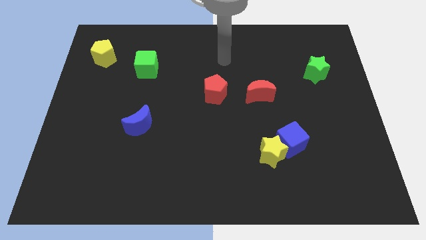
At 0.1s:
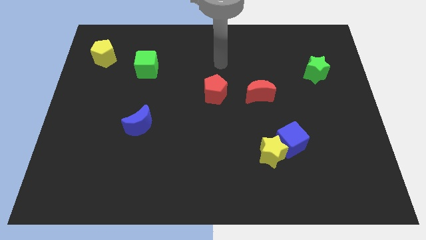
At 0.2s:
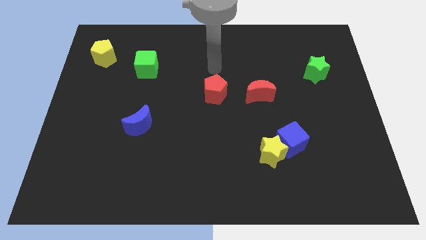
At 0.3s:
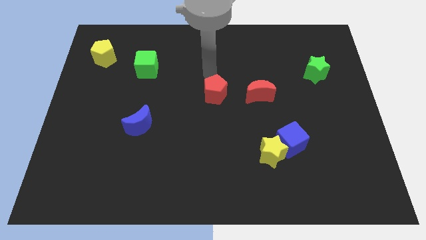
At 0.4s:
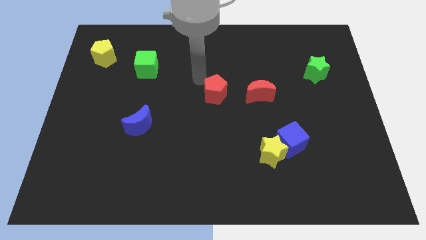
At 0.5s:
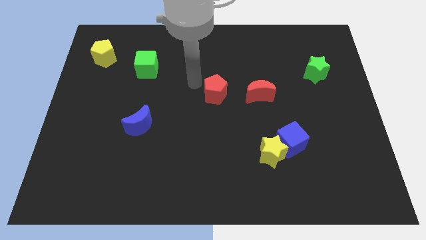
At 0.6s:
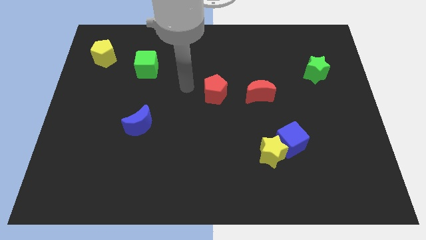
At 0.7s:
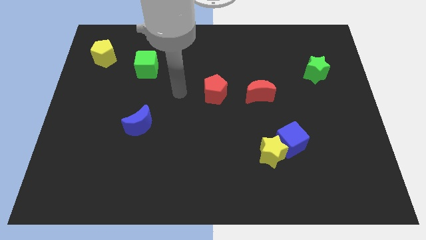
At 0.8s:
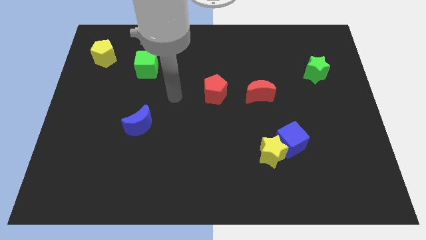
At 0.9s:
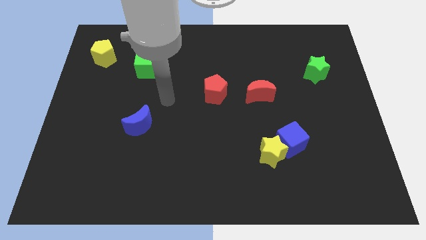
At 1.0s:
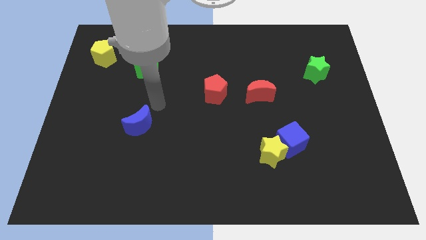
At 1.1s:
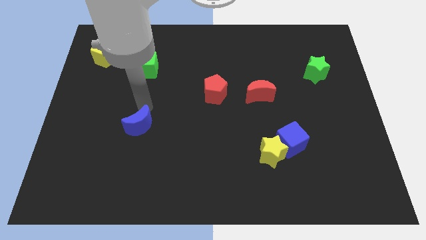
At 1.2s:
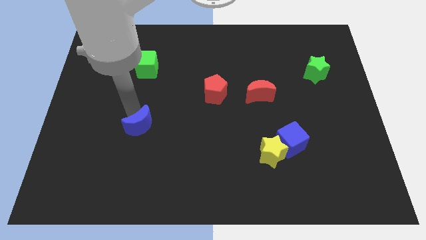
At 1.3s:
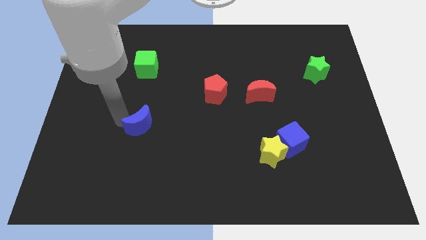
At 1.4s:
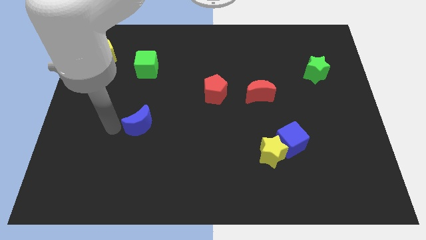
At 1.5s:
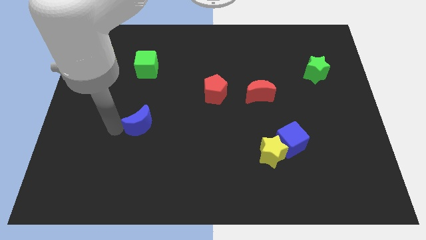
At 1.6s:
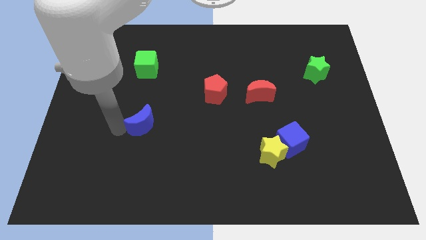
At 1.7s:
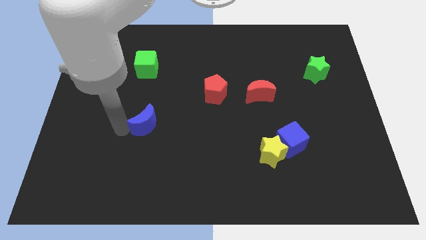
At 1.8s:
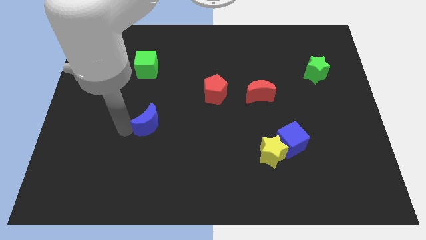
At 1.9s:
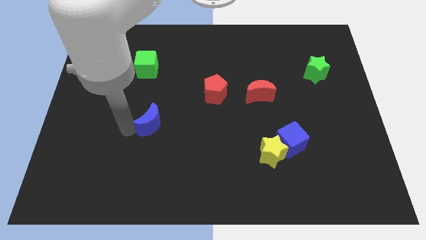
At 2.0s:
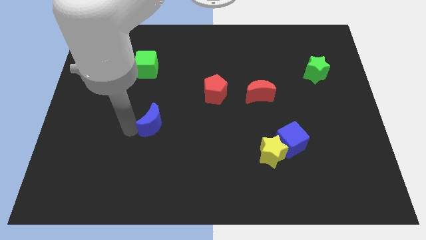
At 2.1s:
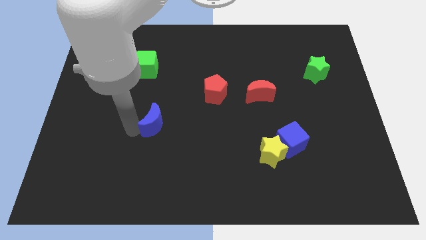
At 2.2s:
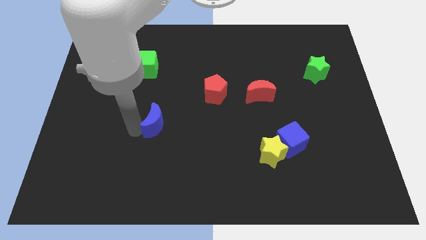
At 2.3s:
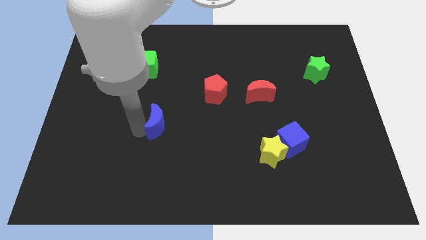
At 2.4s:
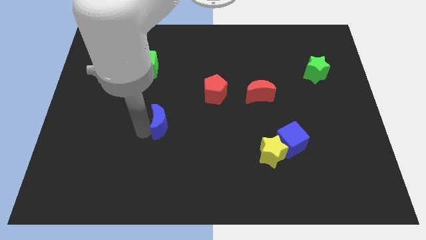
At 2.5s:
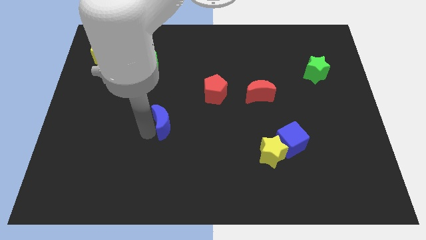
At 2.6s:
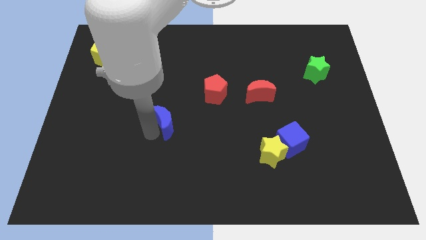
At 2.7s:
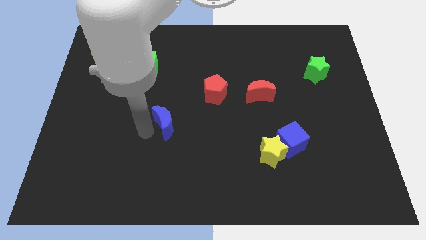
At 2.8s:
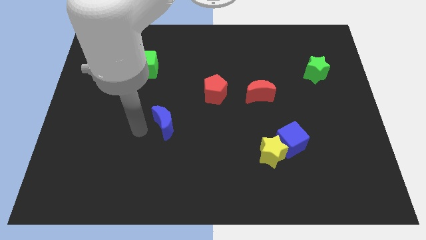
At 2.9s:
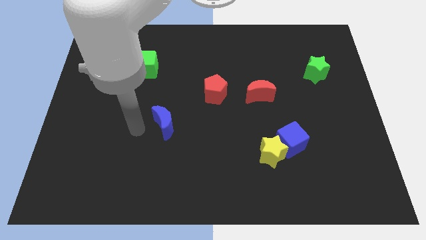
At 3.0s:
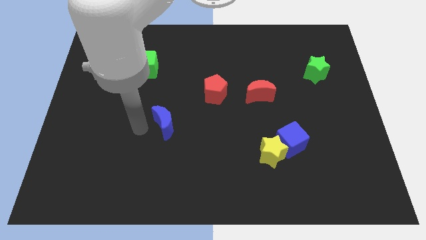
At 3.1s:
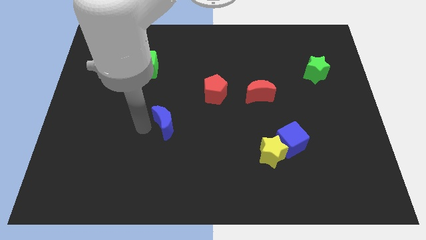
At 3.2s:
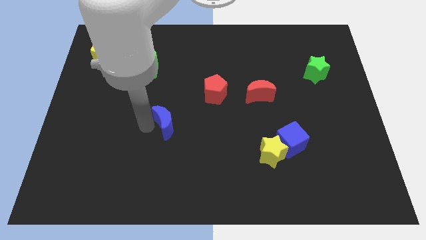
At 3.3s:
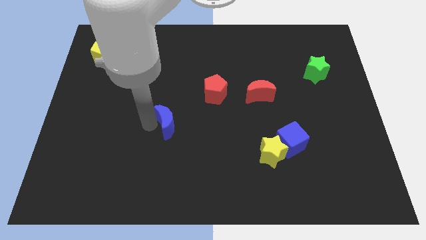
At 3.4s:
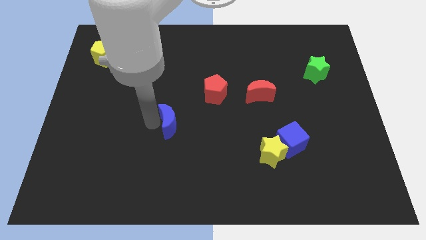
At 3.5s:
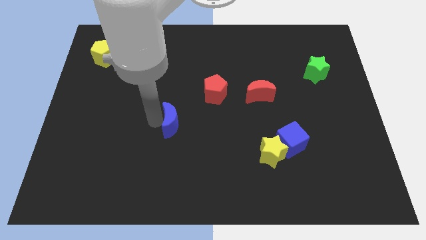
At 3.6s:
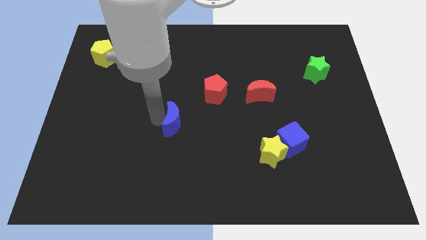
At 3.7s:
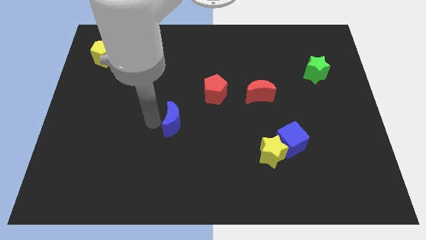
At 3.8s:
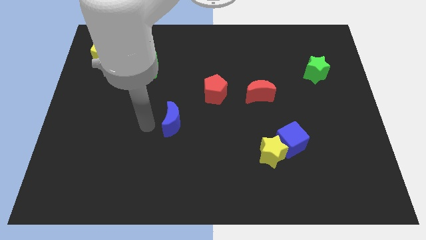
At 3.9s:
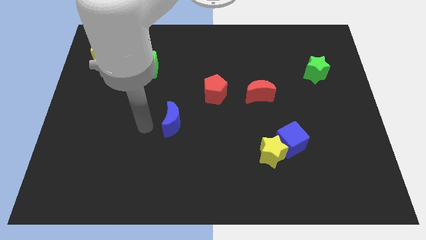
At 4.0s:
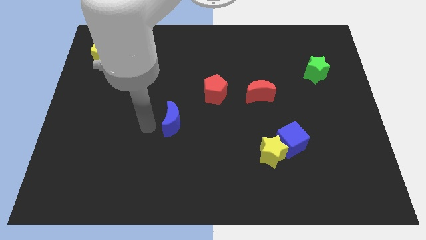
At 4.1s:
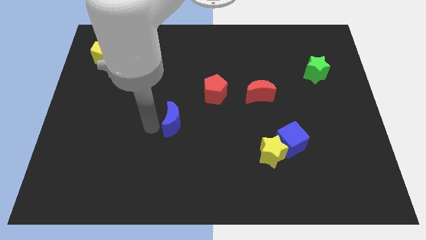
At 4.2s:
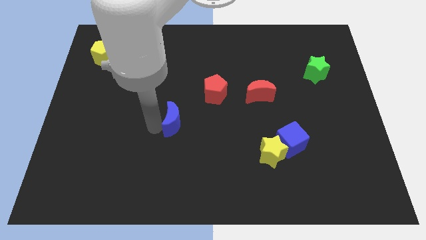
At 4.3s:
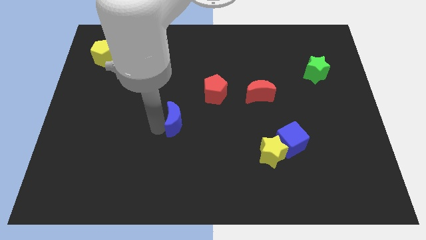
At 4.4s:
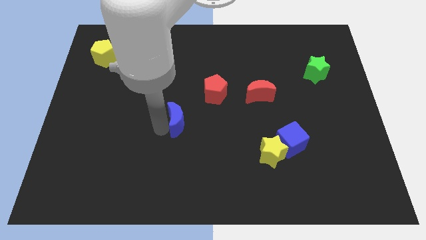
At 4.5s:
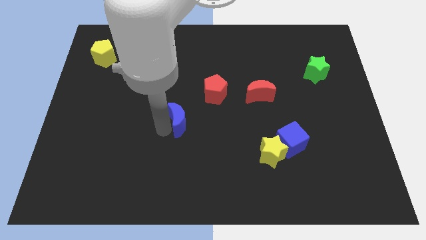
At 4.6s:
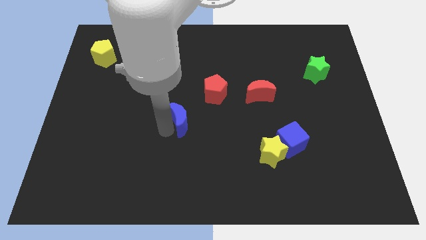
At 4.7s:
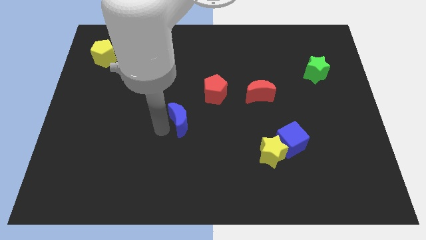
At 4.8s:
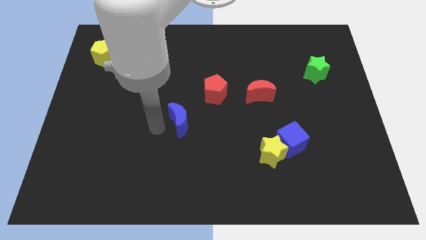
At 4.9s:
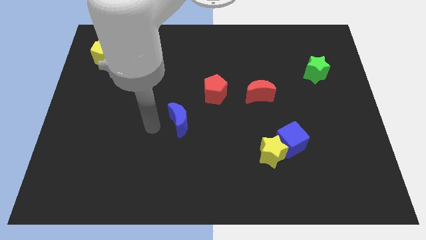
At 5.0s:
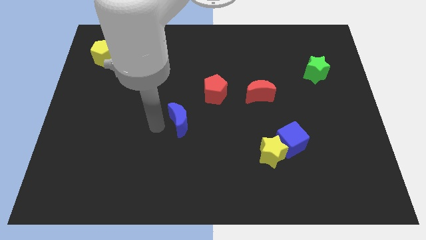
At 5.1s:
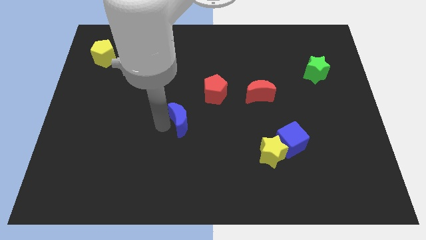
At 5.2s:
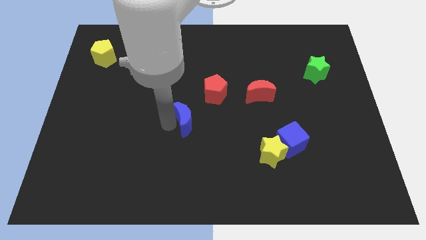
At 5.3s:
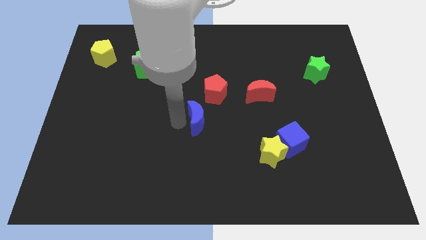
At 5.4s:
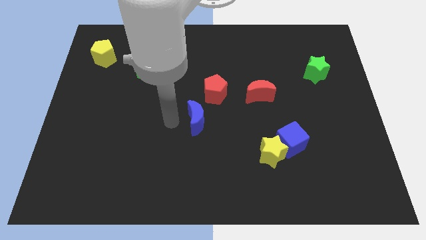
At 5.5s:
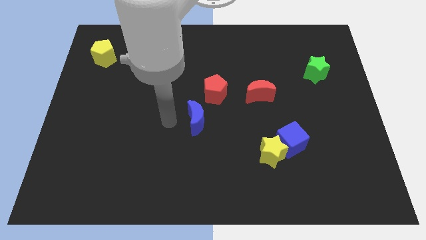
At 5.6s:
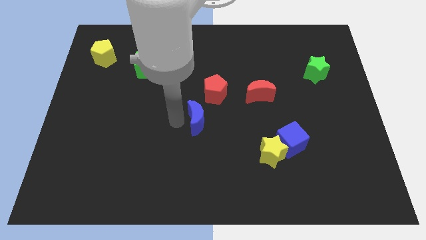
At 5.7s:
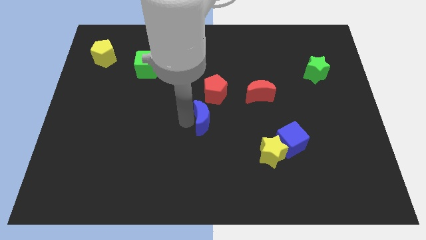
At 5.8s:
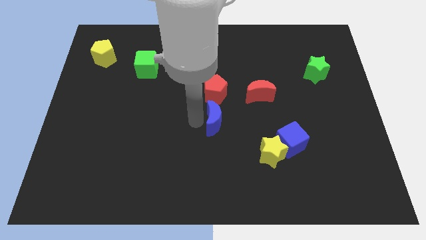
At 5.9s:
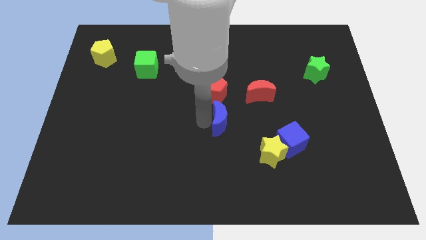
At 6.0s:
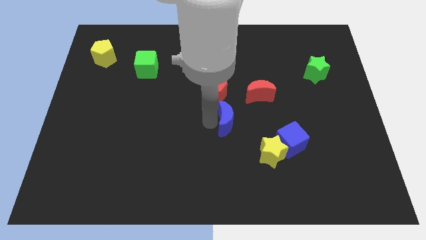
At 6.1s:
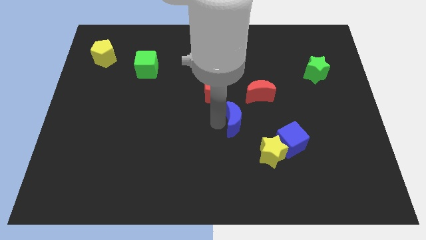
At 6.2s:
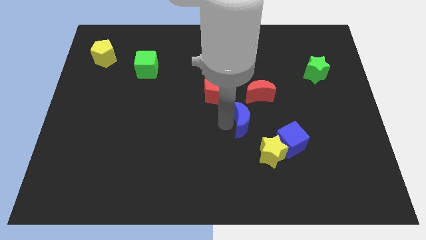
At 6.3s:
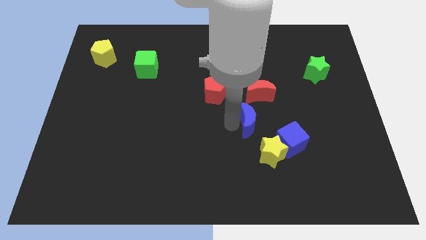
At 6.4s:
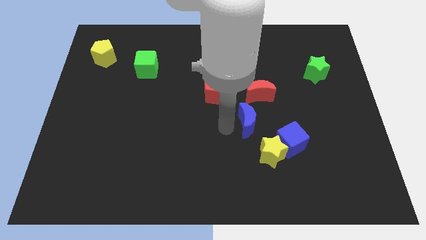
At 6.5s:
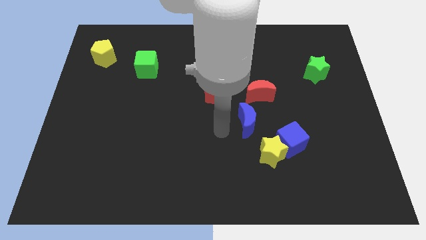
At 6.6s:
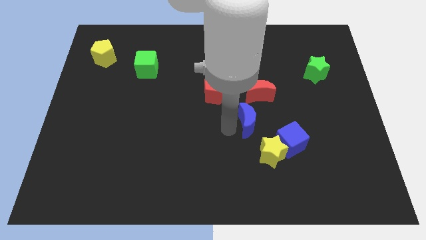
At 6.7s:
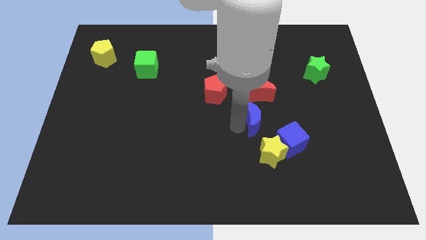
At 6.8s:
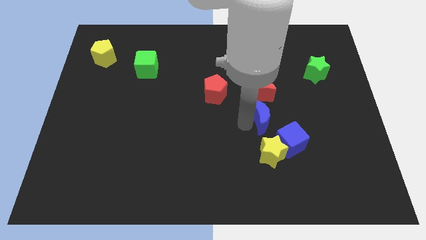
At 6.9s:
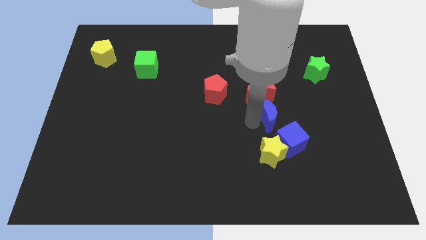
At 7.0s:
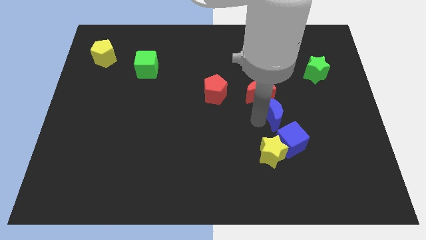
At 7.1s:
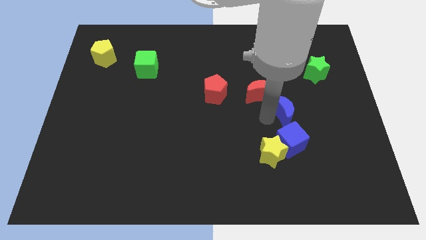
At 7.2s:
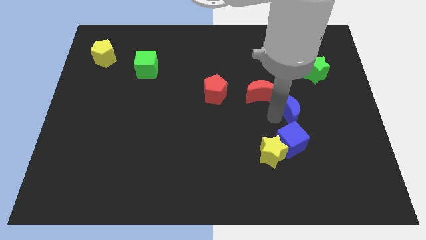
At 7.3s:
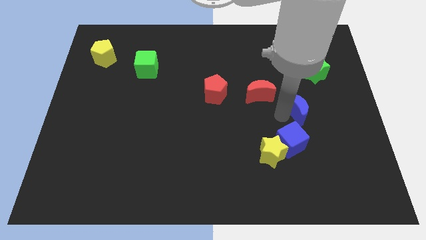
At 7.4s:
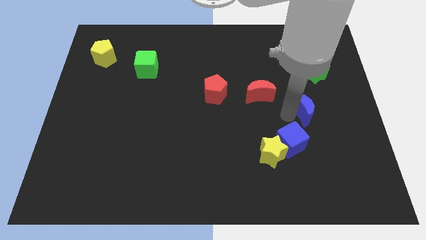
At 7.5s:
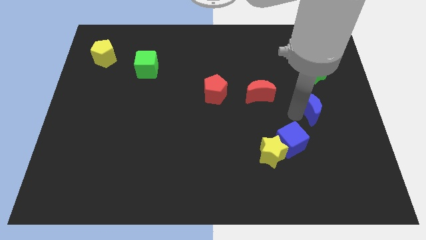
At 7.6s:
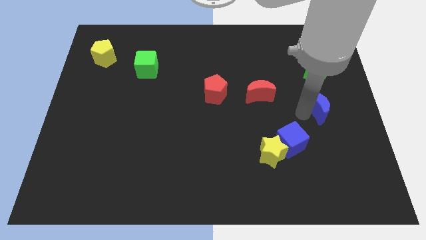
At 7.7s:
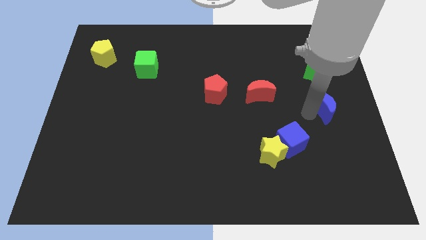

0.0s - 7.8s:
push the blue moon to the right side of the board
